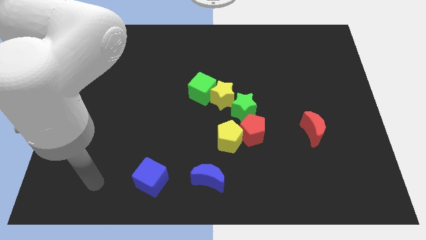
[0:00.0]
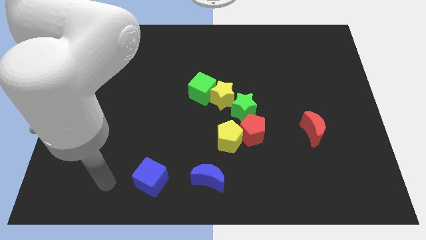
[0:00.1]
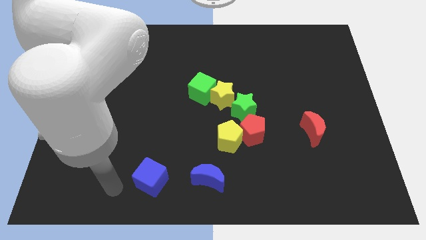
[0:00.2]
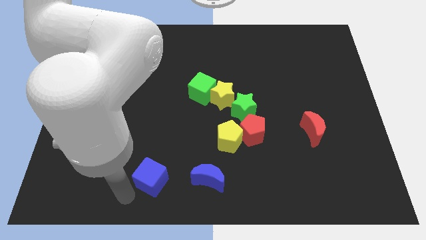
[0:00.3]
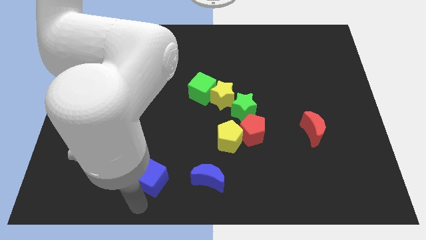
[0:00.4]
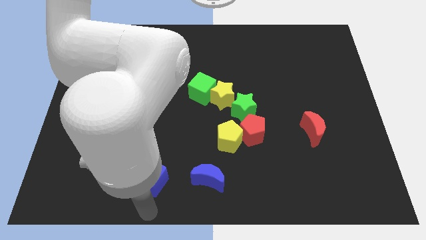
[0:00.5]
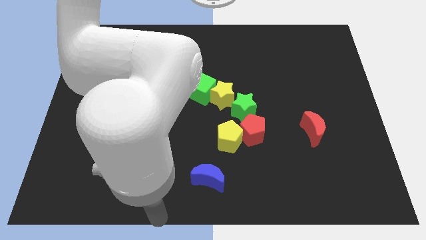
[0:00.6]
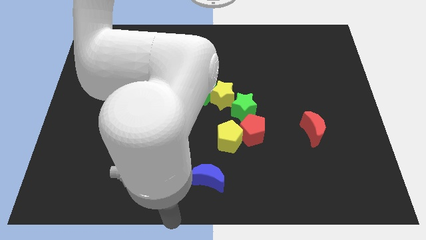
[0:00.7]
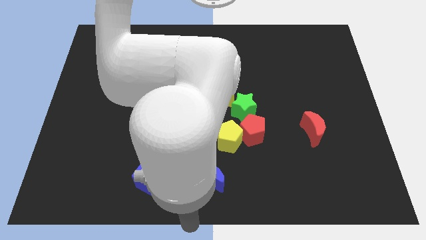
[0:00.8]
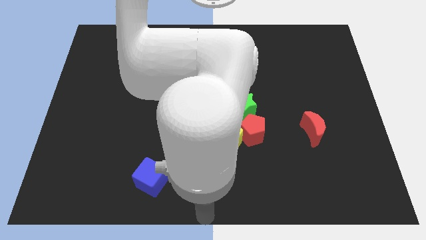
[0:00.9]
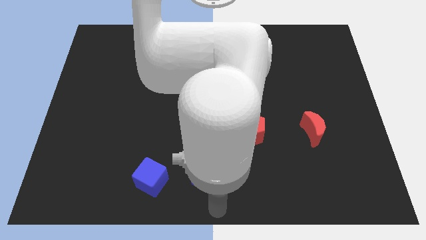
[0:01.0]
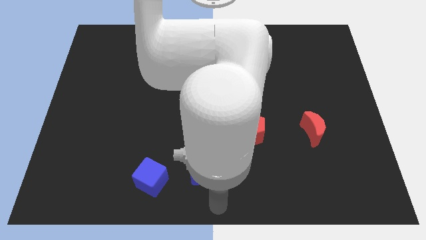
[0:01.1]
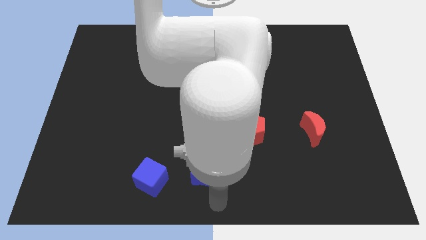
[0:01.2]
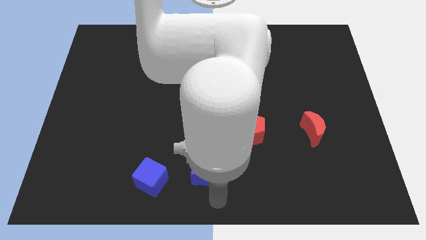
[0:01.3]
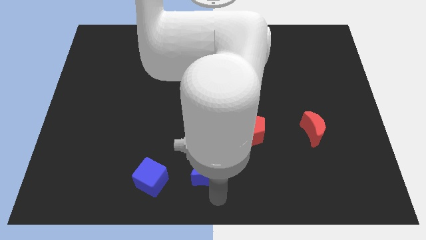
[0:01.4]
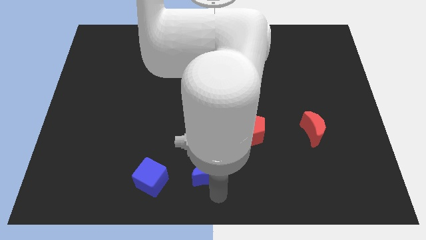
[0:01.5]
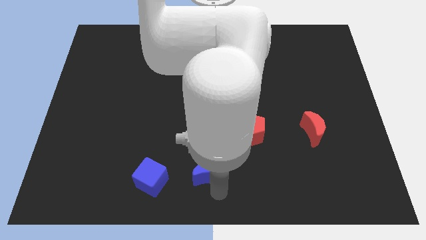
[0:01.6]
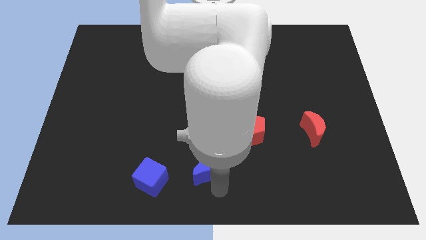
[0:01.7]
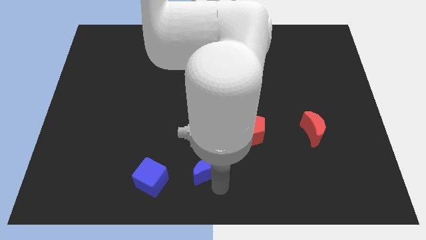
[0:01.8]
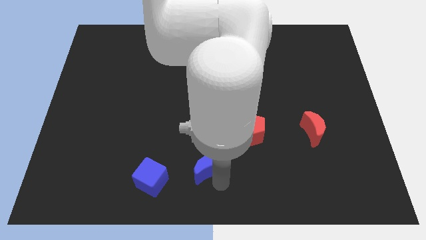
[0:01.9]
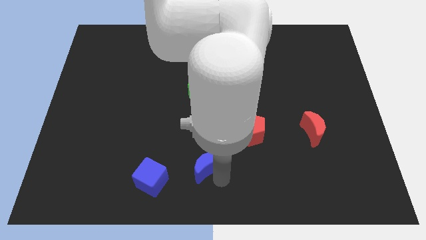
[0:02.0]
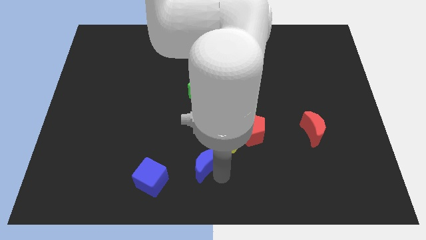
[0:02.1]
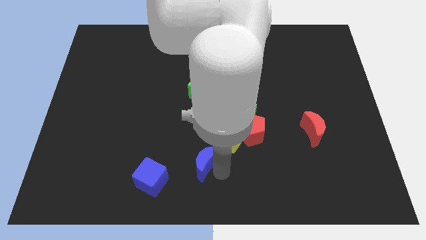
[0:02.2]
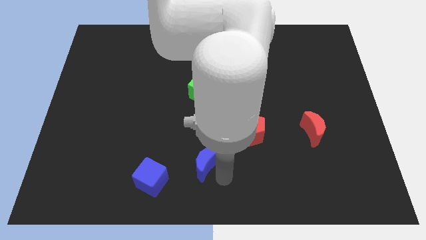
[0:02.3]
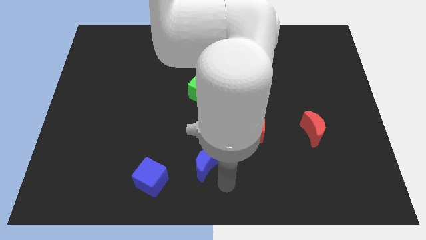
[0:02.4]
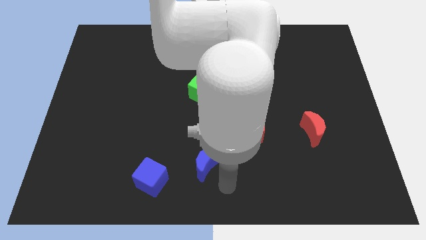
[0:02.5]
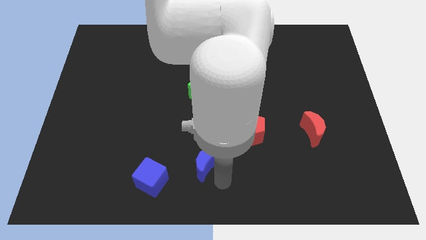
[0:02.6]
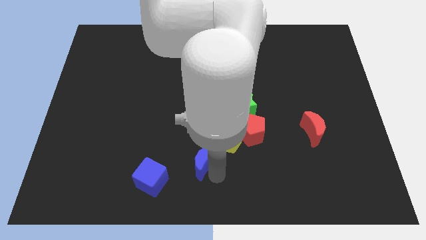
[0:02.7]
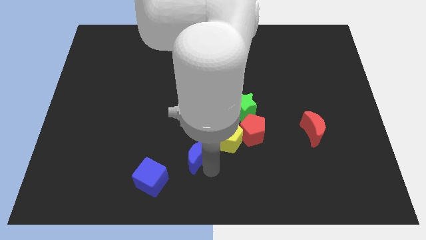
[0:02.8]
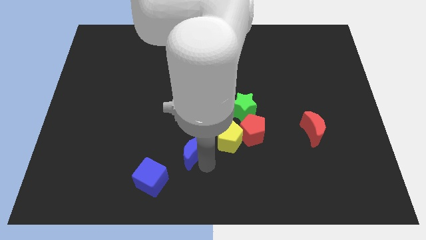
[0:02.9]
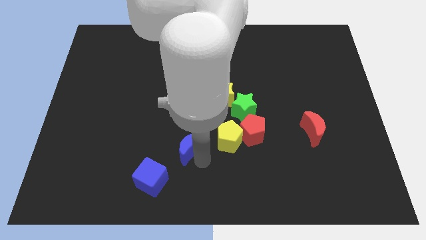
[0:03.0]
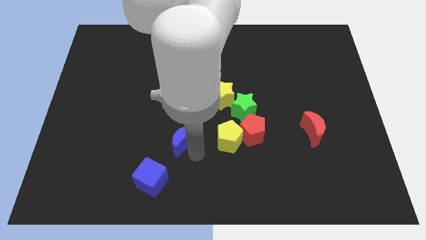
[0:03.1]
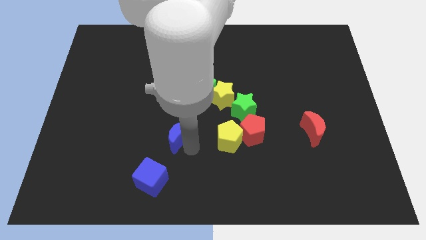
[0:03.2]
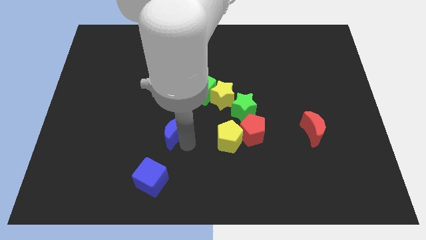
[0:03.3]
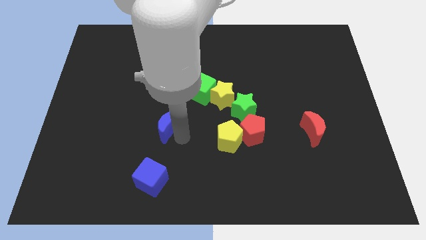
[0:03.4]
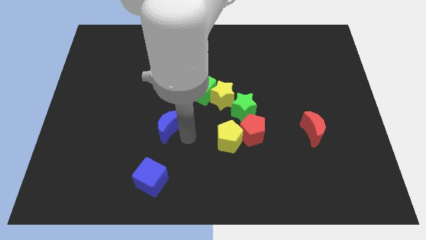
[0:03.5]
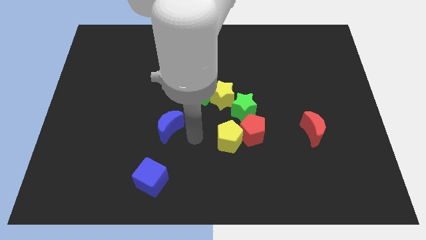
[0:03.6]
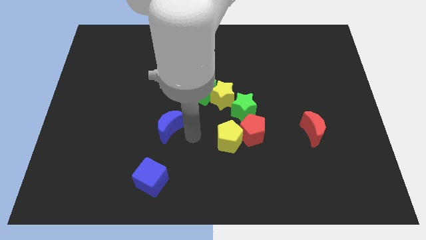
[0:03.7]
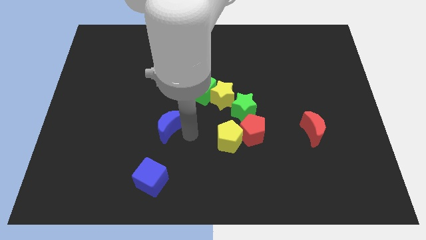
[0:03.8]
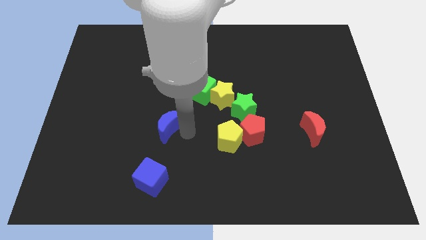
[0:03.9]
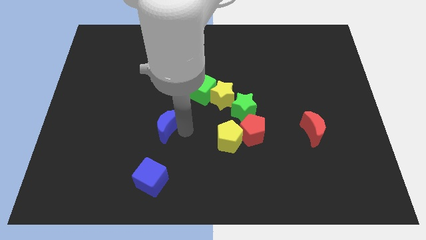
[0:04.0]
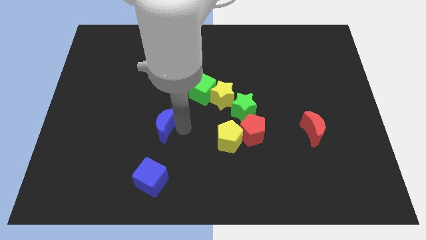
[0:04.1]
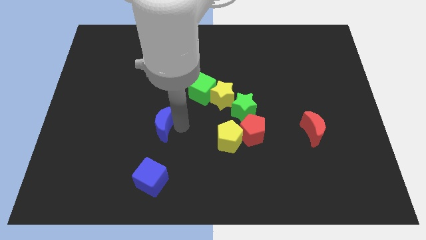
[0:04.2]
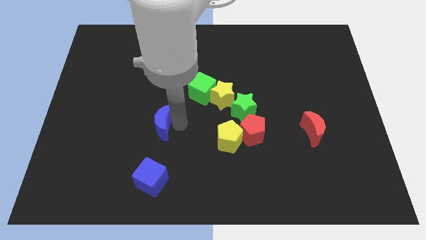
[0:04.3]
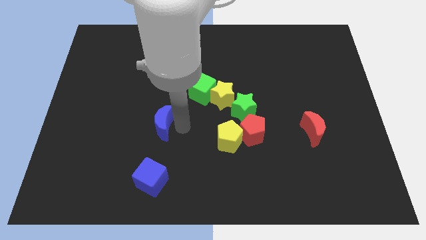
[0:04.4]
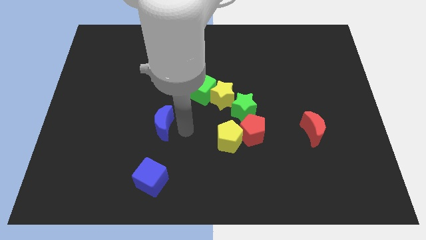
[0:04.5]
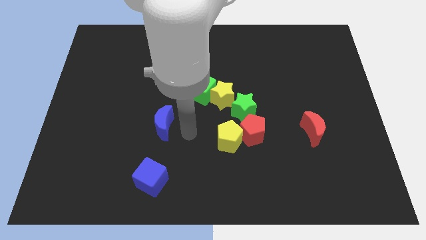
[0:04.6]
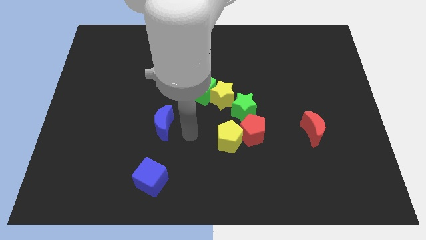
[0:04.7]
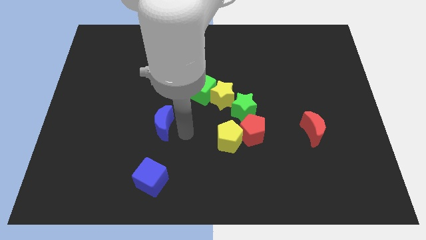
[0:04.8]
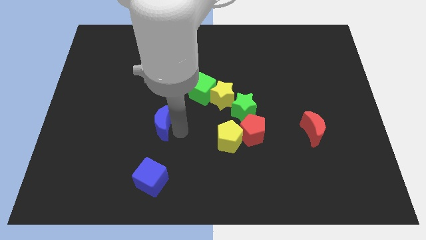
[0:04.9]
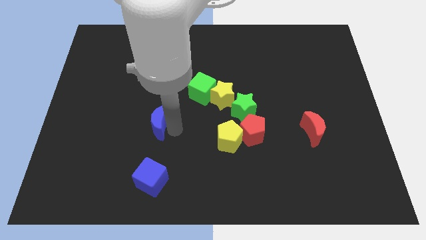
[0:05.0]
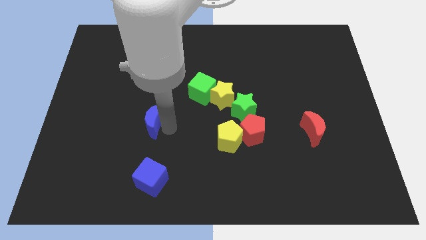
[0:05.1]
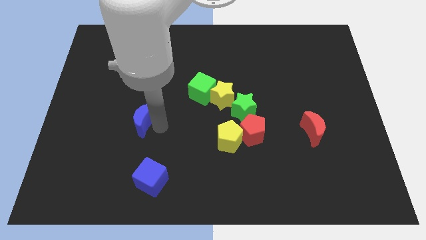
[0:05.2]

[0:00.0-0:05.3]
slide the blue moon up and left diagonally

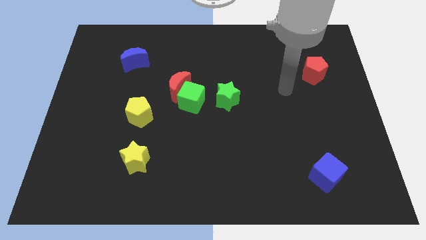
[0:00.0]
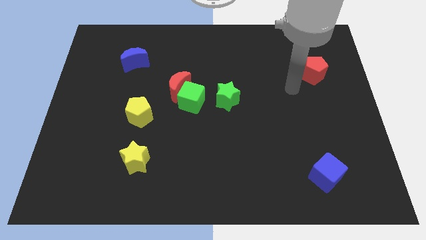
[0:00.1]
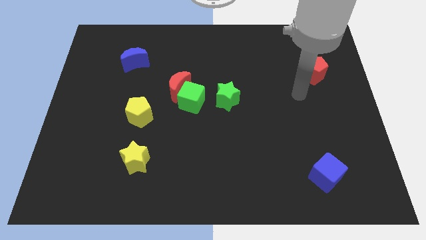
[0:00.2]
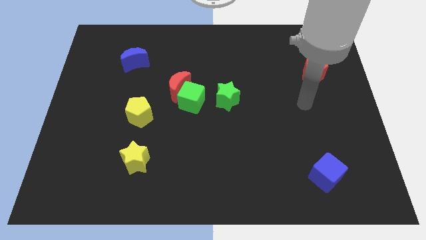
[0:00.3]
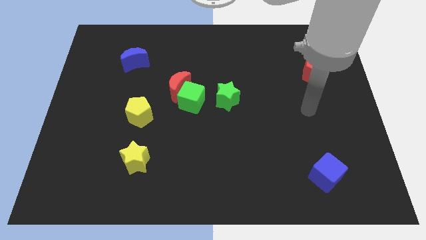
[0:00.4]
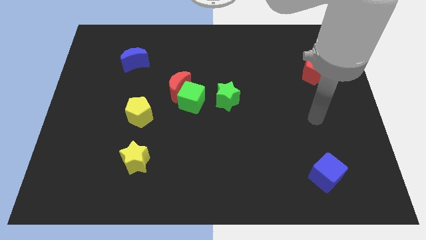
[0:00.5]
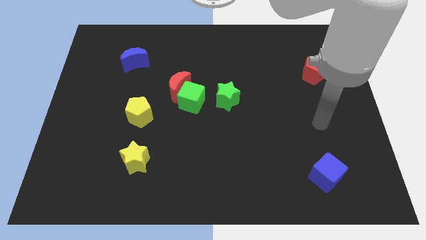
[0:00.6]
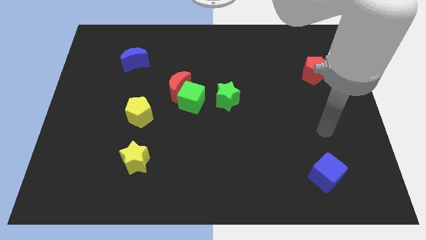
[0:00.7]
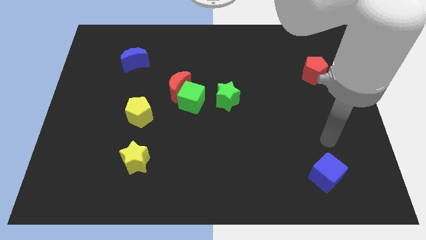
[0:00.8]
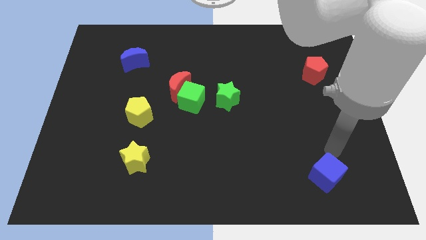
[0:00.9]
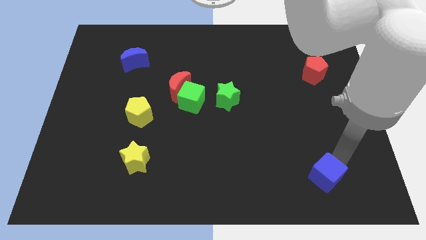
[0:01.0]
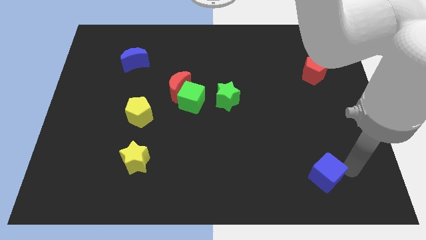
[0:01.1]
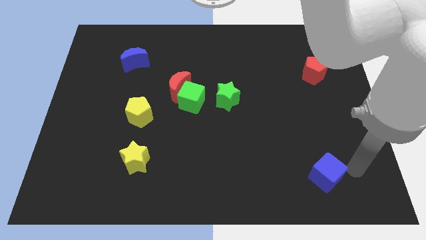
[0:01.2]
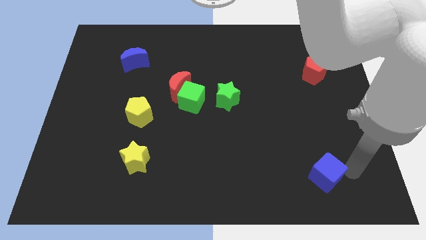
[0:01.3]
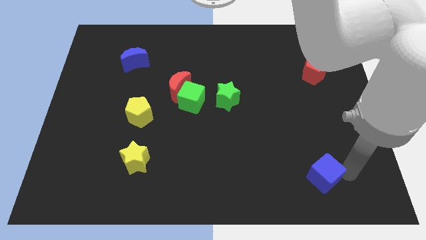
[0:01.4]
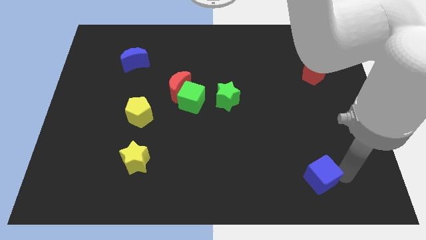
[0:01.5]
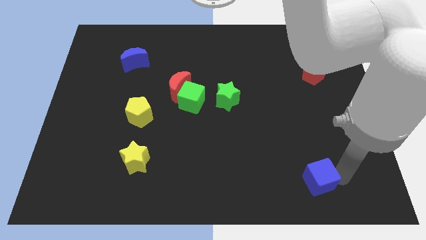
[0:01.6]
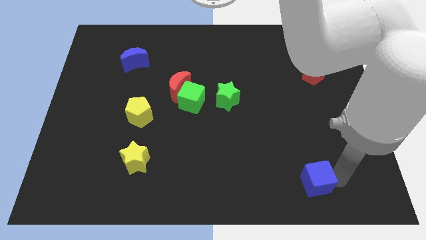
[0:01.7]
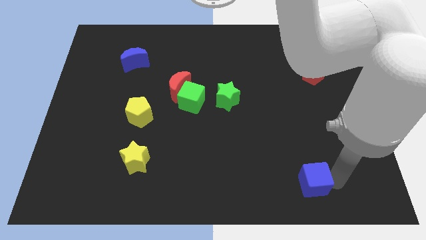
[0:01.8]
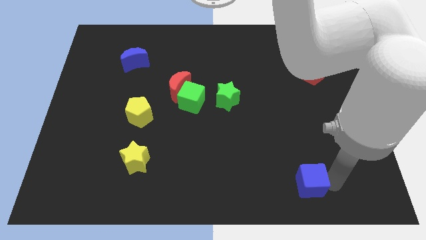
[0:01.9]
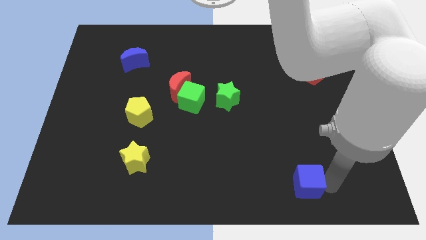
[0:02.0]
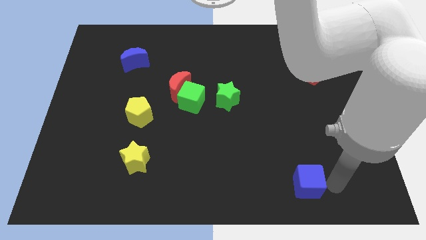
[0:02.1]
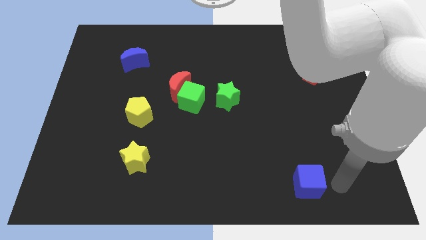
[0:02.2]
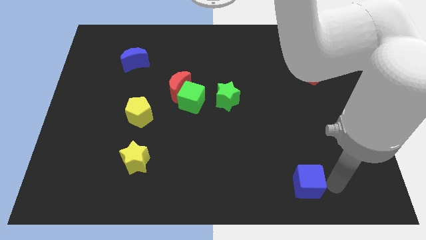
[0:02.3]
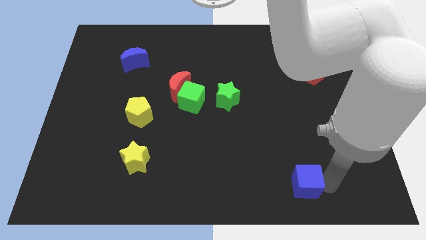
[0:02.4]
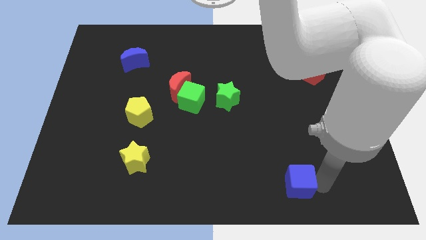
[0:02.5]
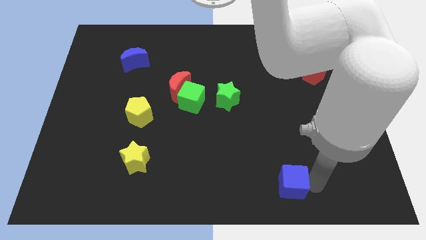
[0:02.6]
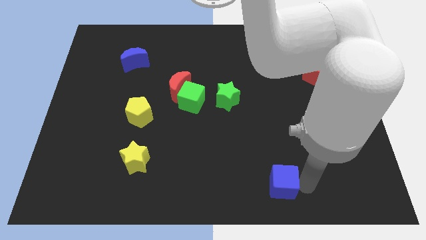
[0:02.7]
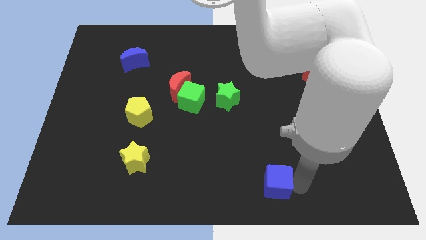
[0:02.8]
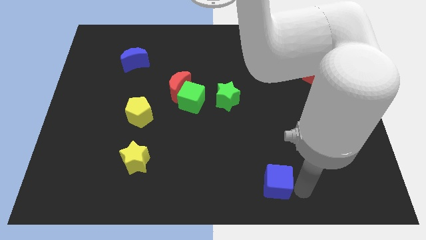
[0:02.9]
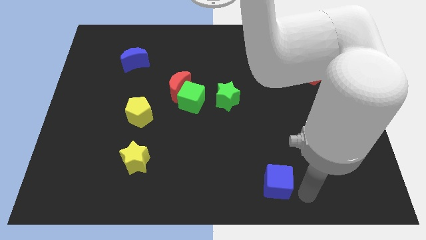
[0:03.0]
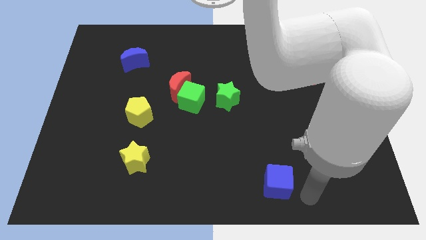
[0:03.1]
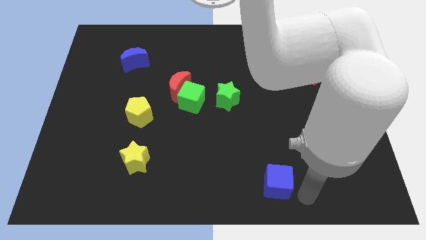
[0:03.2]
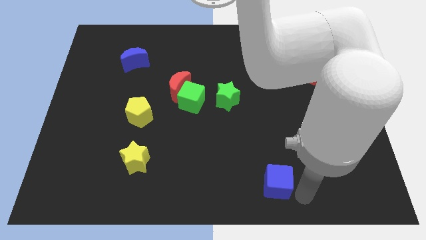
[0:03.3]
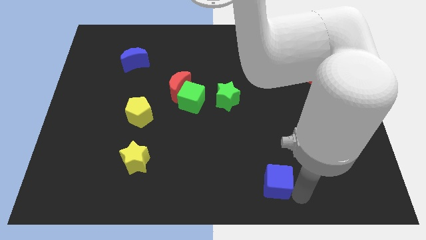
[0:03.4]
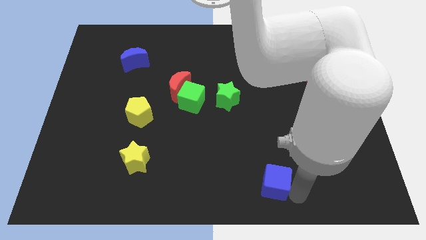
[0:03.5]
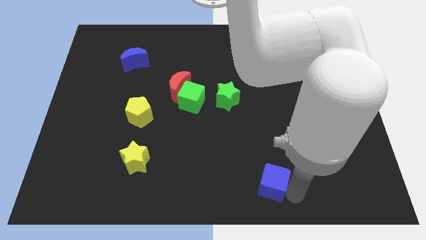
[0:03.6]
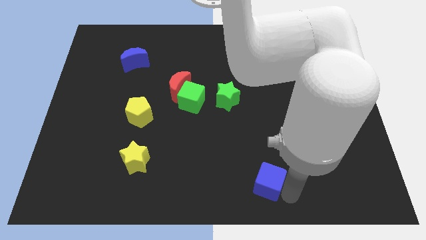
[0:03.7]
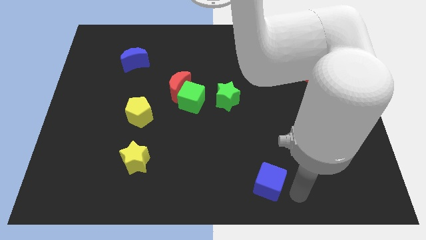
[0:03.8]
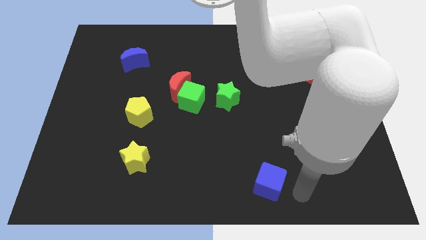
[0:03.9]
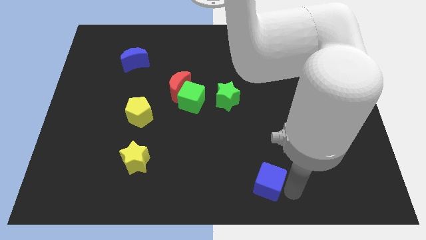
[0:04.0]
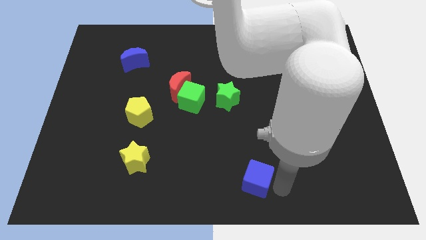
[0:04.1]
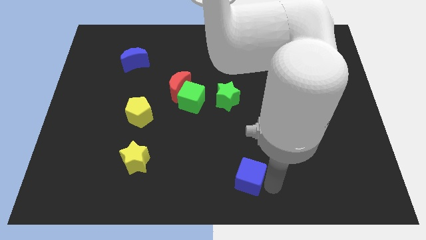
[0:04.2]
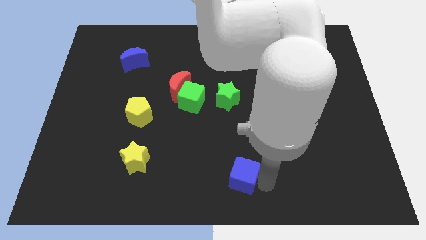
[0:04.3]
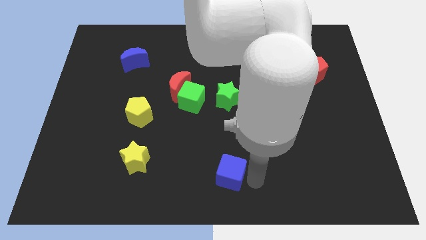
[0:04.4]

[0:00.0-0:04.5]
move the blue cube left
